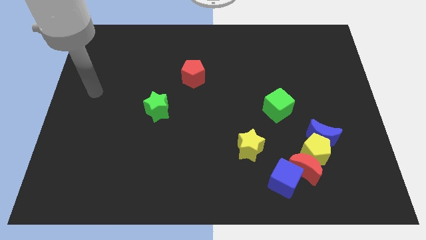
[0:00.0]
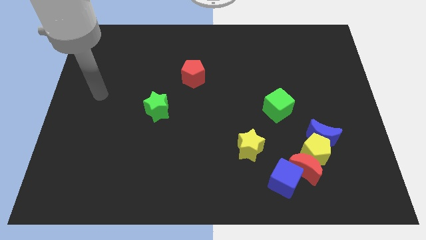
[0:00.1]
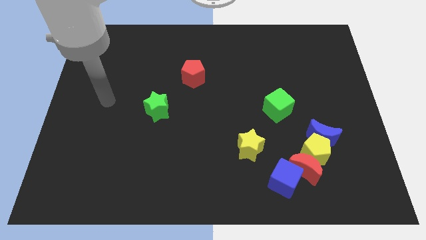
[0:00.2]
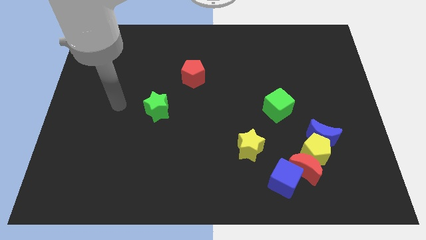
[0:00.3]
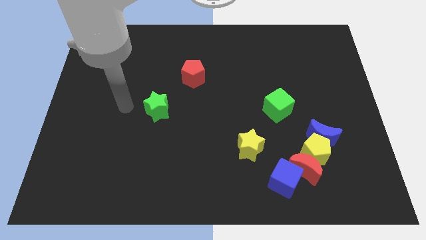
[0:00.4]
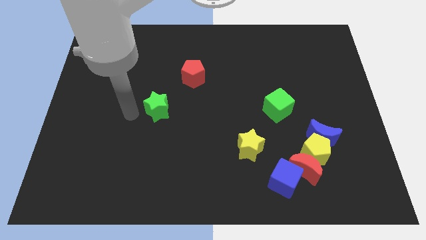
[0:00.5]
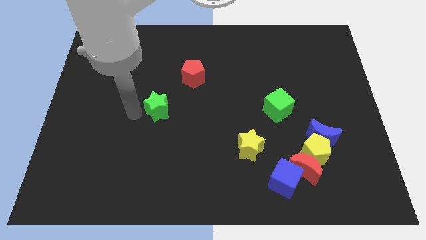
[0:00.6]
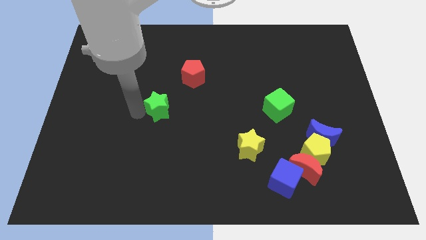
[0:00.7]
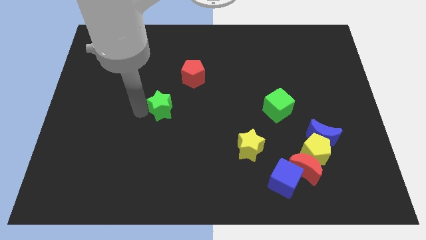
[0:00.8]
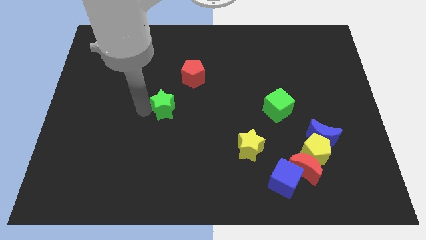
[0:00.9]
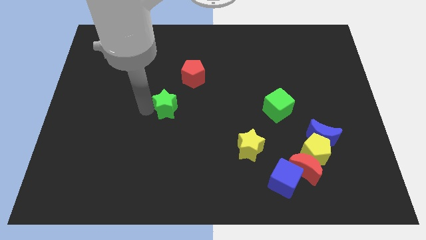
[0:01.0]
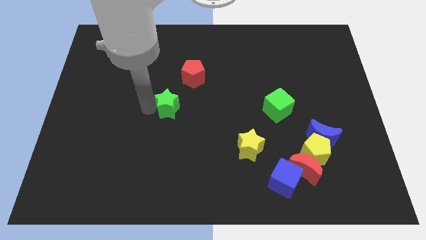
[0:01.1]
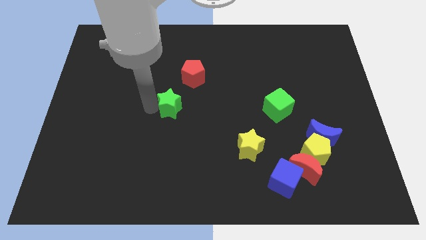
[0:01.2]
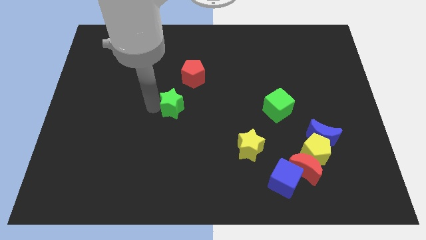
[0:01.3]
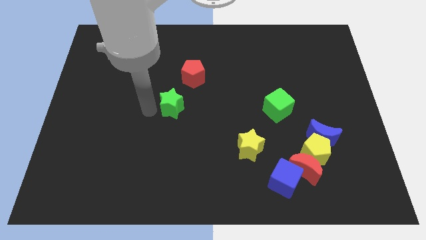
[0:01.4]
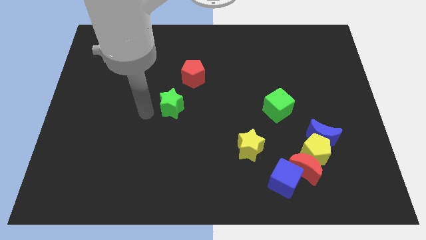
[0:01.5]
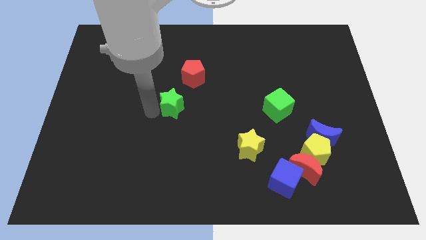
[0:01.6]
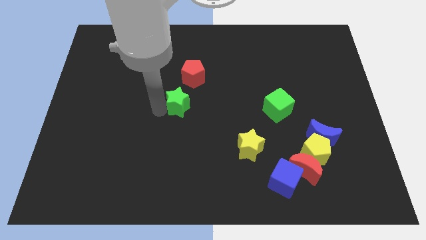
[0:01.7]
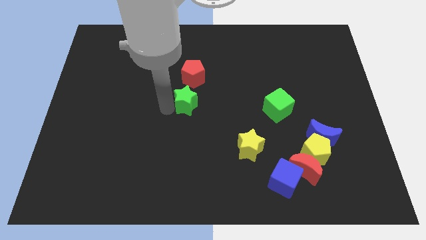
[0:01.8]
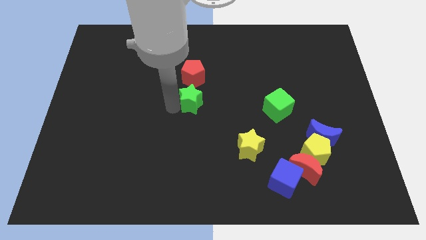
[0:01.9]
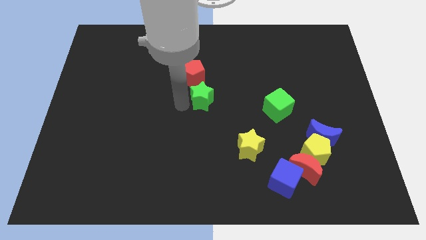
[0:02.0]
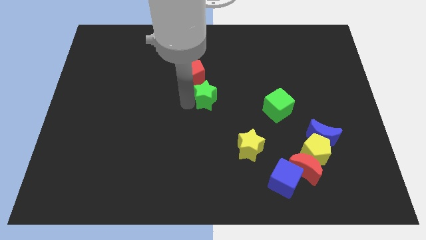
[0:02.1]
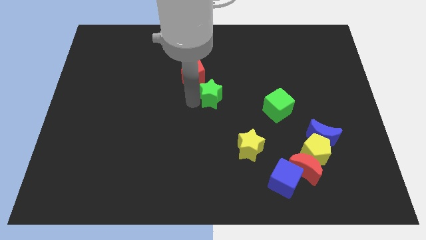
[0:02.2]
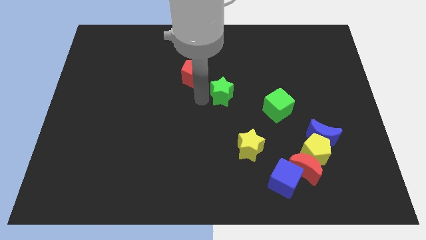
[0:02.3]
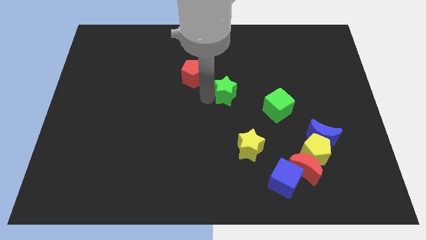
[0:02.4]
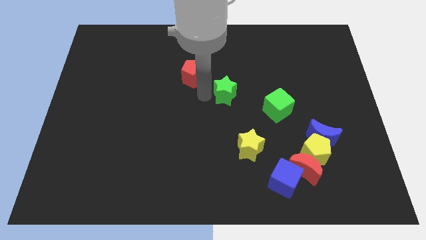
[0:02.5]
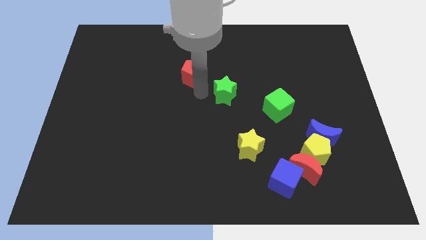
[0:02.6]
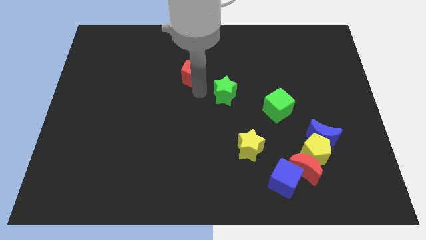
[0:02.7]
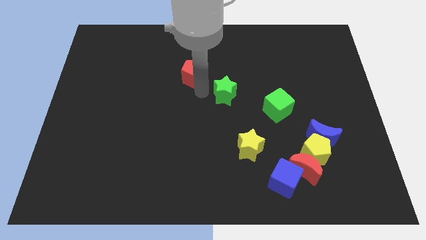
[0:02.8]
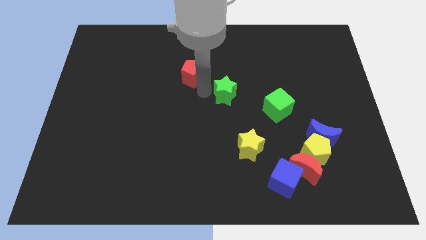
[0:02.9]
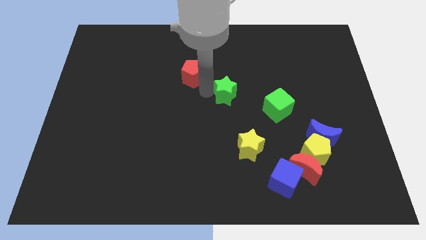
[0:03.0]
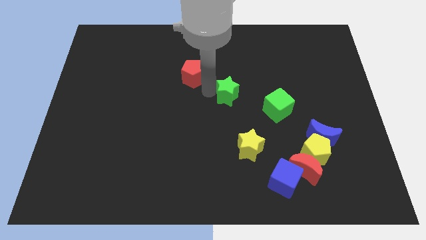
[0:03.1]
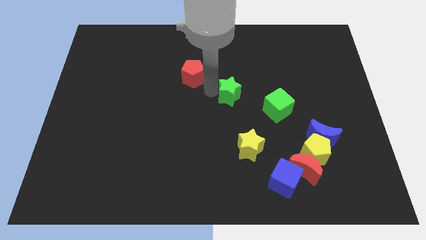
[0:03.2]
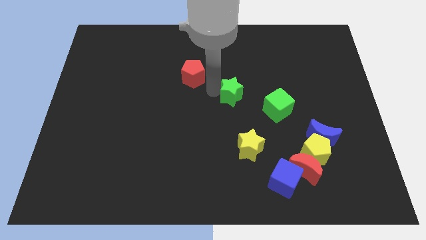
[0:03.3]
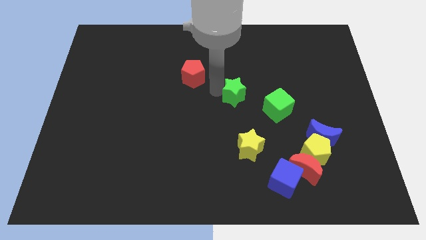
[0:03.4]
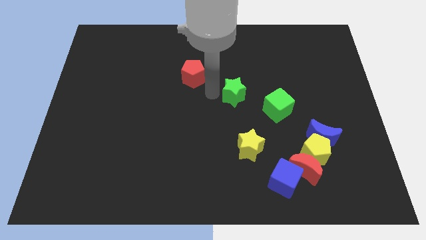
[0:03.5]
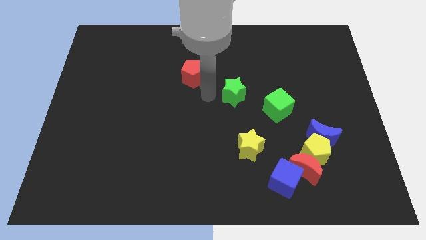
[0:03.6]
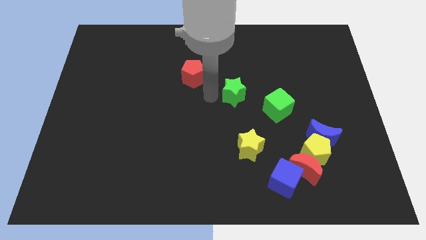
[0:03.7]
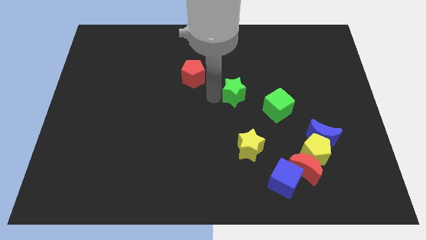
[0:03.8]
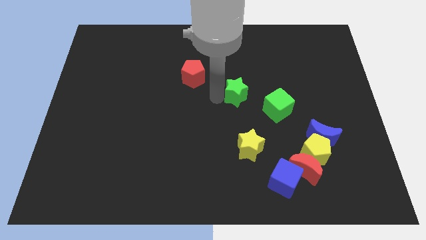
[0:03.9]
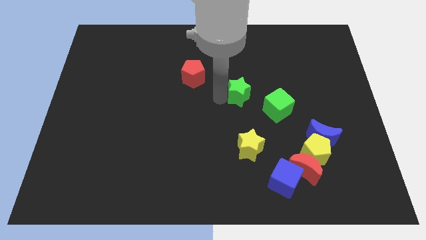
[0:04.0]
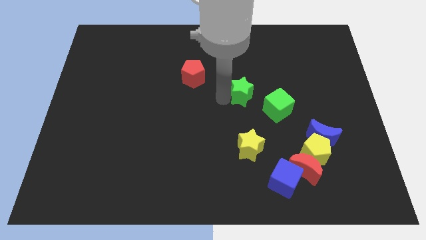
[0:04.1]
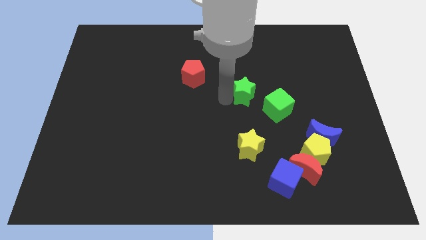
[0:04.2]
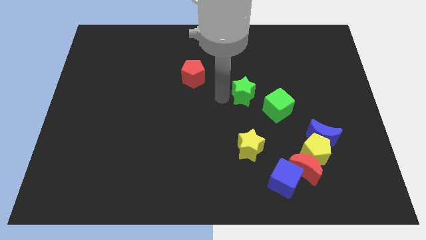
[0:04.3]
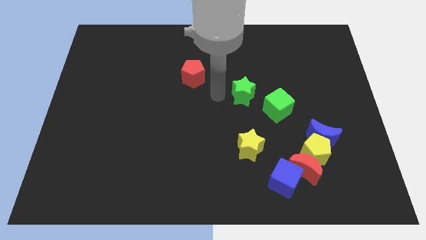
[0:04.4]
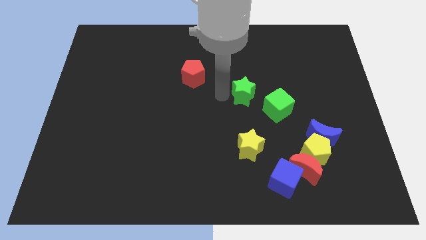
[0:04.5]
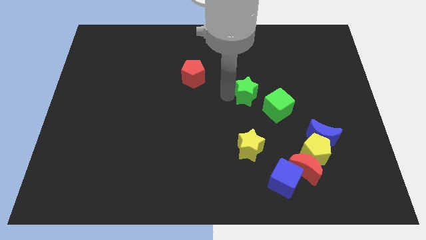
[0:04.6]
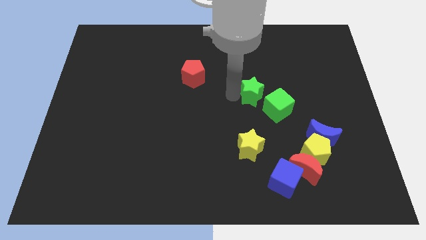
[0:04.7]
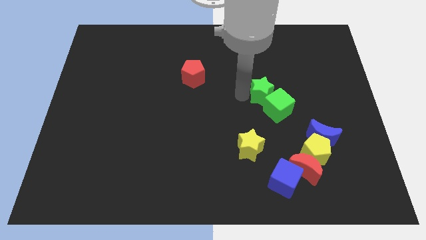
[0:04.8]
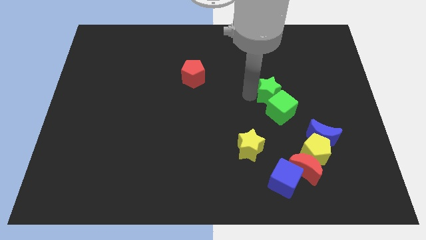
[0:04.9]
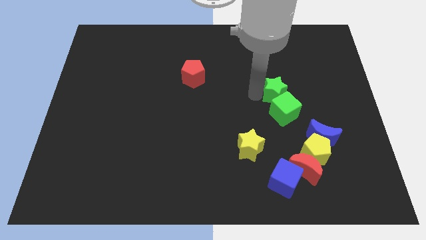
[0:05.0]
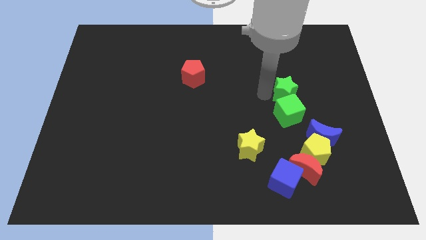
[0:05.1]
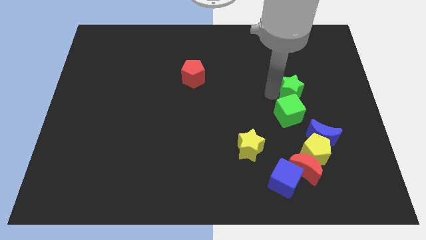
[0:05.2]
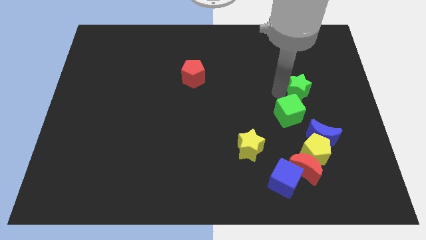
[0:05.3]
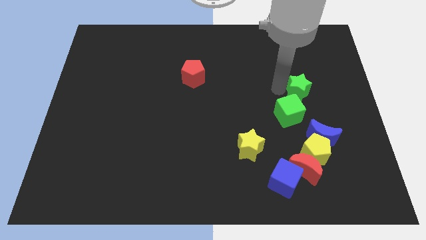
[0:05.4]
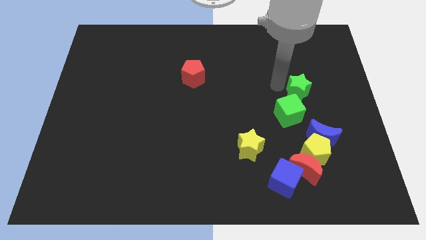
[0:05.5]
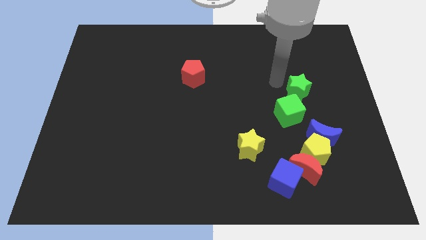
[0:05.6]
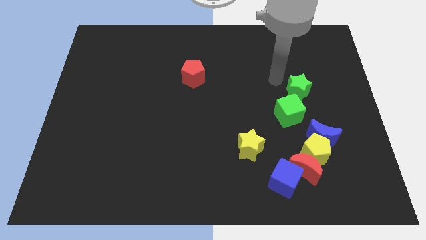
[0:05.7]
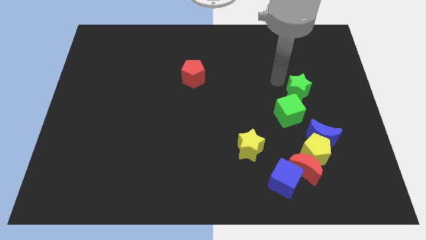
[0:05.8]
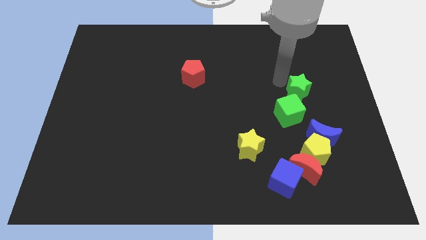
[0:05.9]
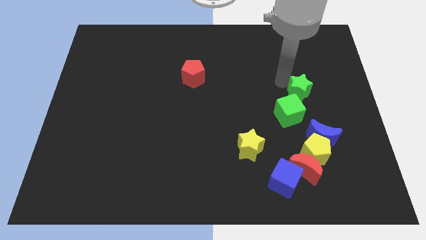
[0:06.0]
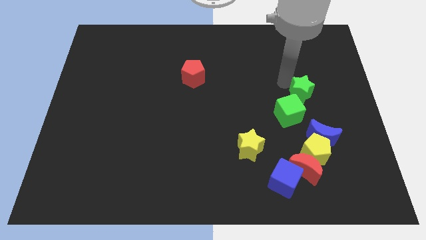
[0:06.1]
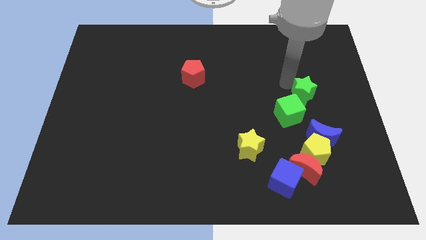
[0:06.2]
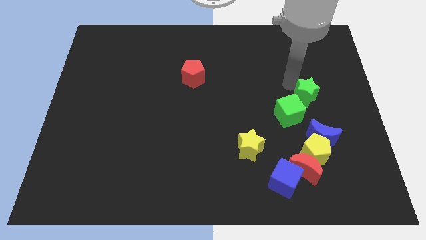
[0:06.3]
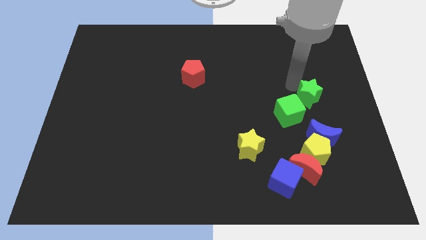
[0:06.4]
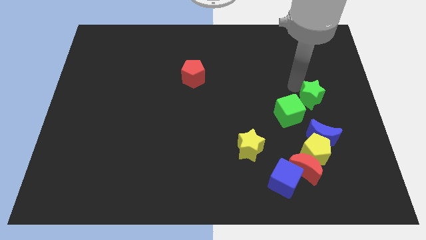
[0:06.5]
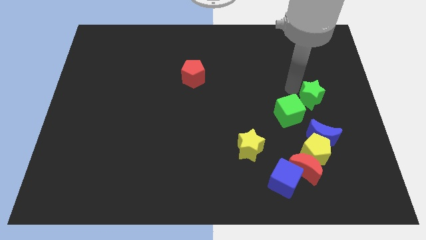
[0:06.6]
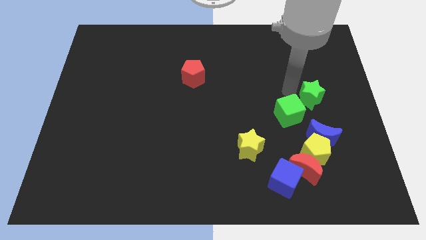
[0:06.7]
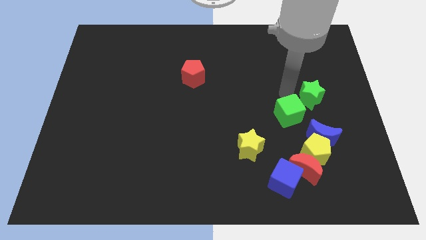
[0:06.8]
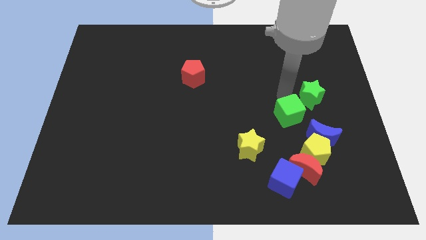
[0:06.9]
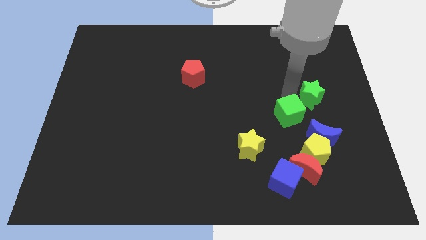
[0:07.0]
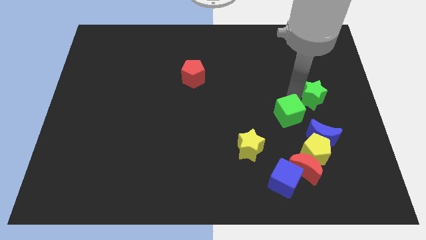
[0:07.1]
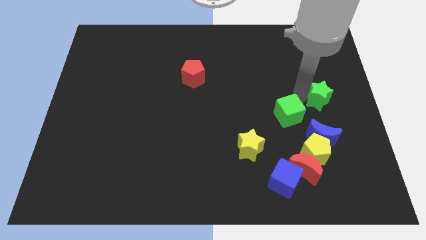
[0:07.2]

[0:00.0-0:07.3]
push the green star to the right side of the board
